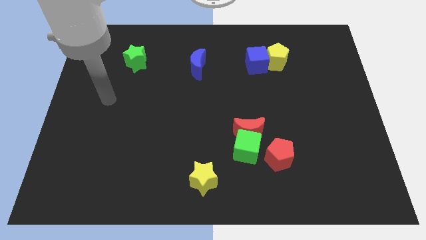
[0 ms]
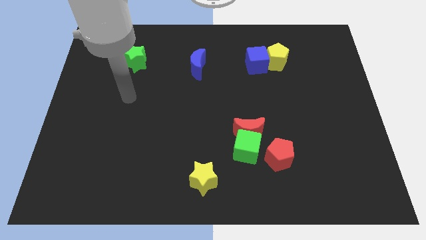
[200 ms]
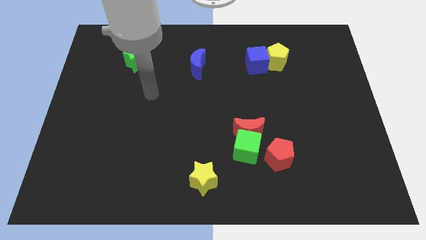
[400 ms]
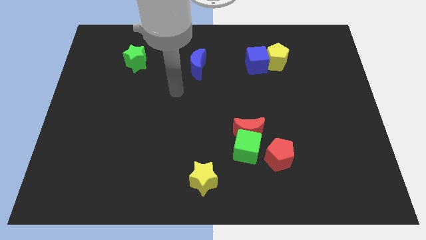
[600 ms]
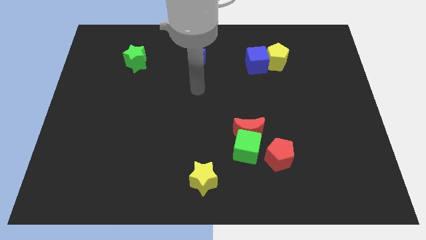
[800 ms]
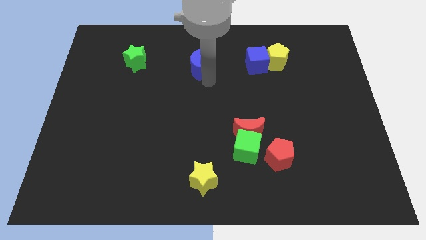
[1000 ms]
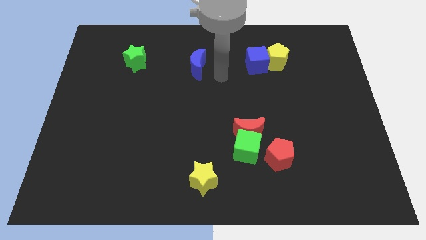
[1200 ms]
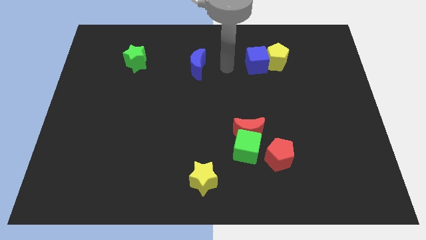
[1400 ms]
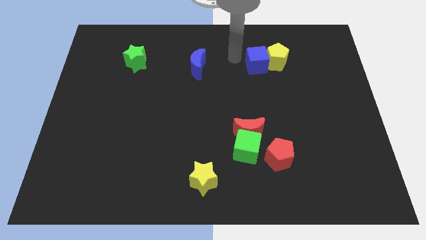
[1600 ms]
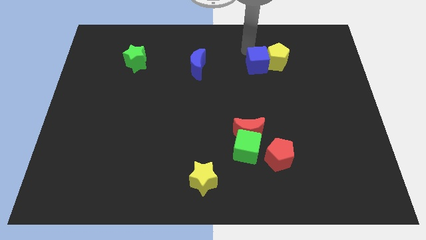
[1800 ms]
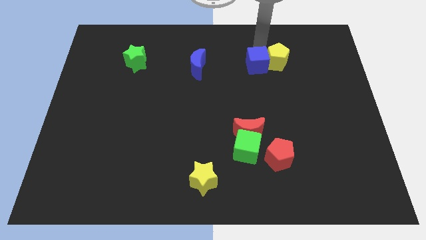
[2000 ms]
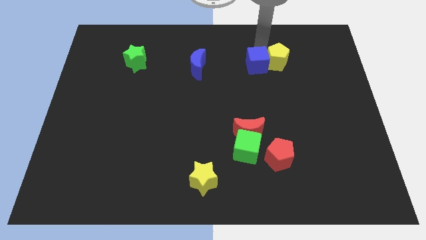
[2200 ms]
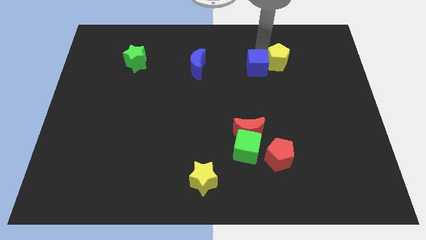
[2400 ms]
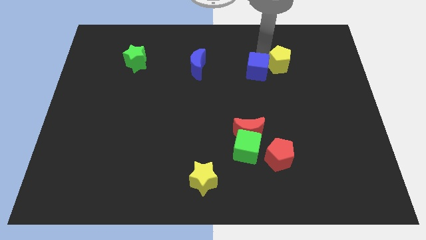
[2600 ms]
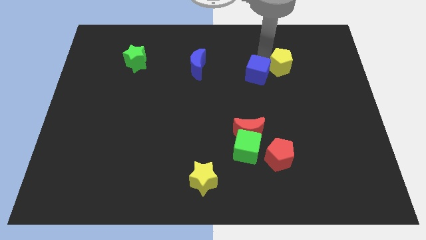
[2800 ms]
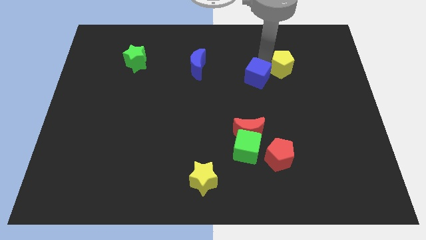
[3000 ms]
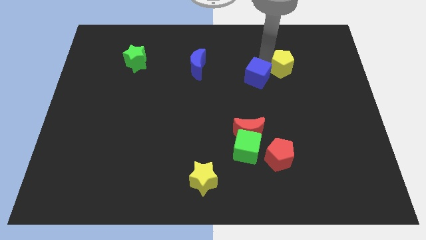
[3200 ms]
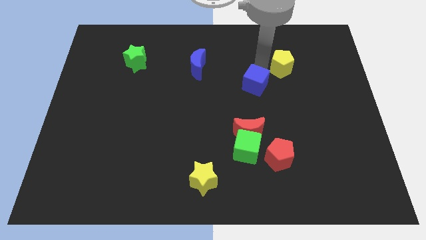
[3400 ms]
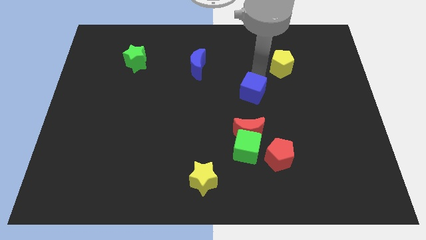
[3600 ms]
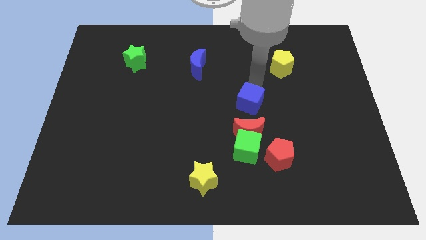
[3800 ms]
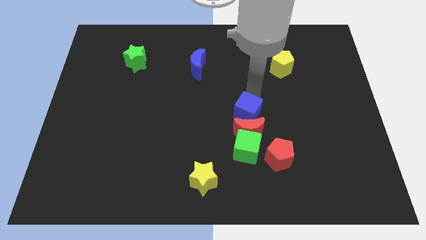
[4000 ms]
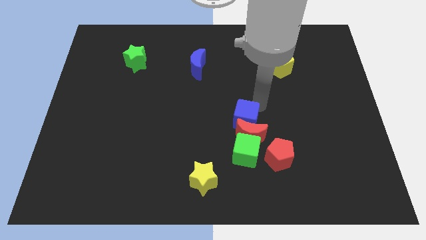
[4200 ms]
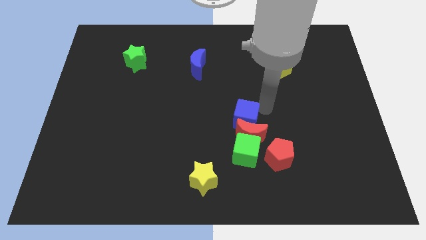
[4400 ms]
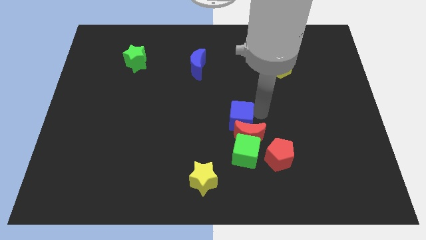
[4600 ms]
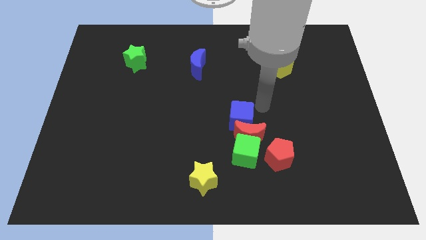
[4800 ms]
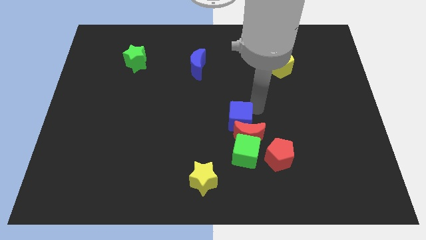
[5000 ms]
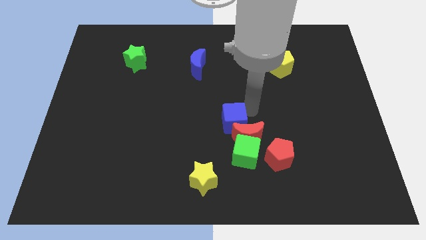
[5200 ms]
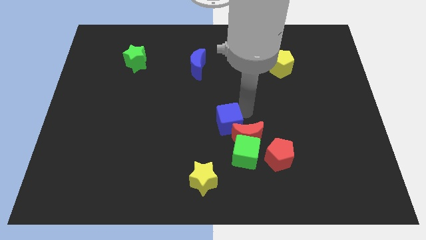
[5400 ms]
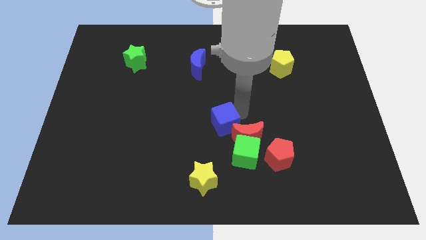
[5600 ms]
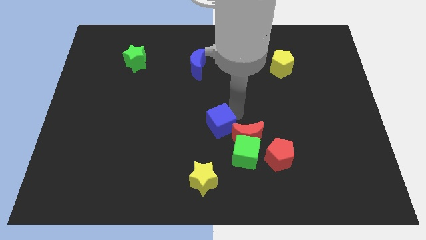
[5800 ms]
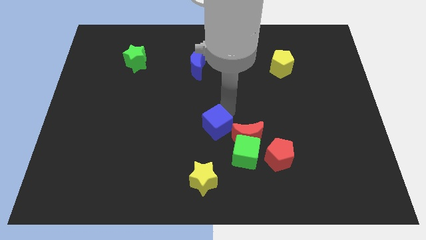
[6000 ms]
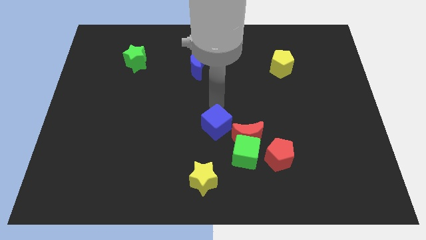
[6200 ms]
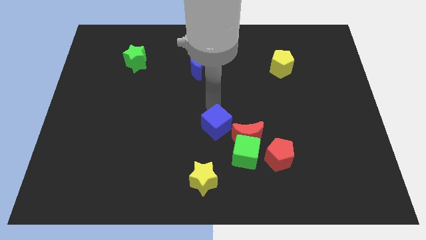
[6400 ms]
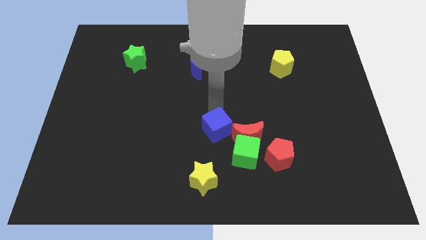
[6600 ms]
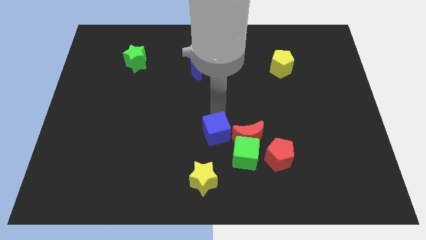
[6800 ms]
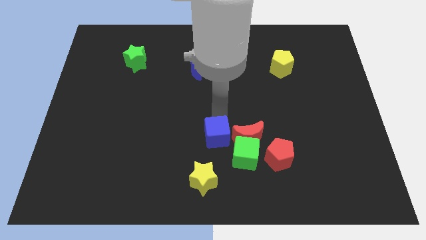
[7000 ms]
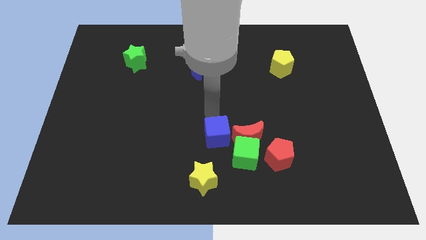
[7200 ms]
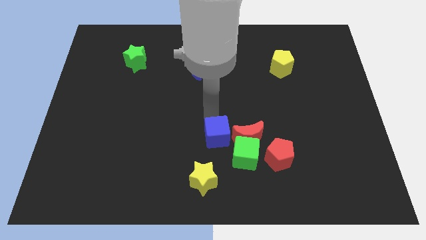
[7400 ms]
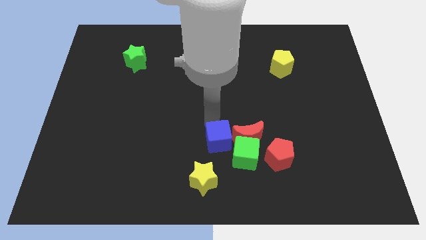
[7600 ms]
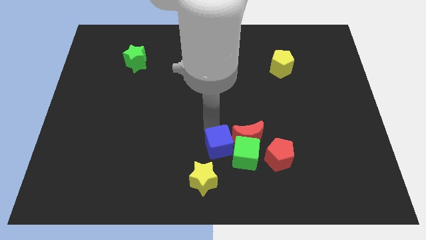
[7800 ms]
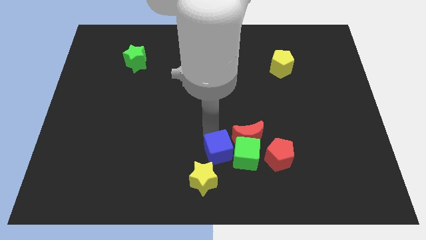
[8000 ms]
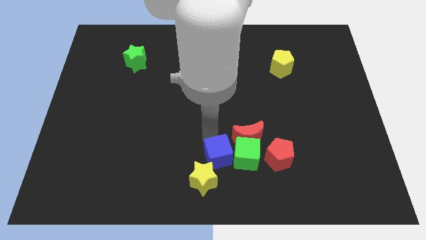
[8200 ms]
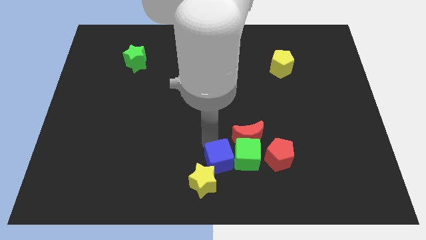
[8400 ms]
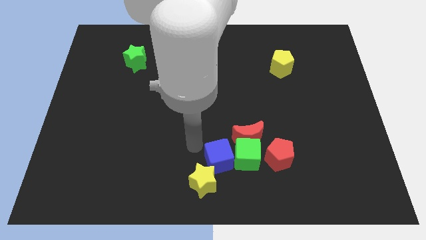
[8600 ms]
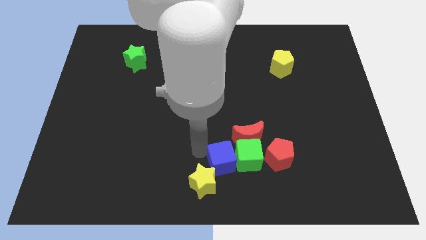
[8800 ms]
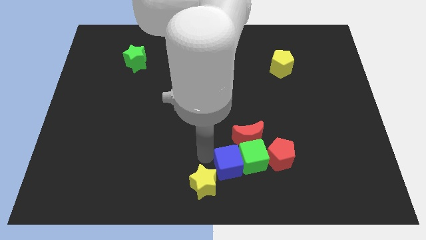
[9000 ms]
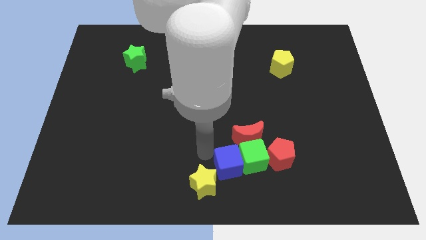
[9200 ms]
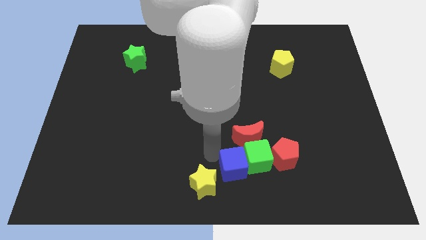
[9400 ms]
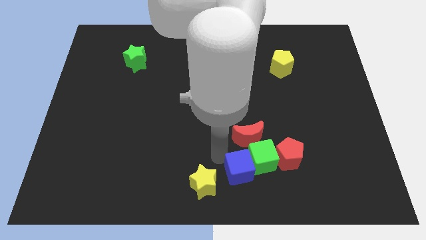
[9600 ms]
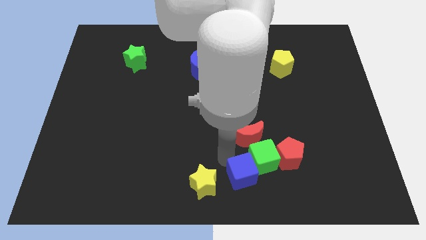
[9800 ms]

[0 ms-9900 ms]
push the blue cube to the bottom left of the red pentagon

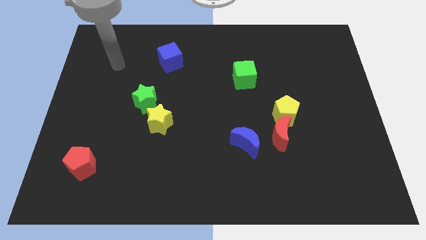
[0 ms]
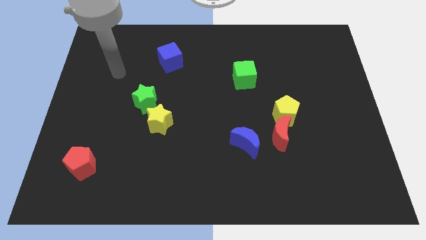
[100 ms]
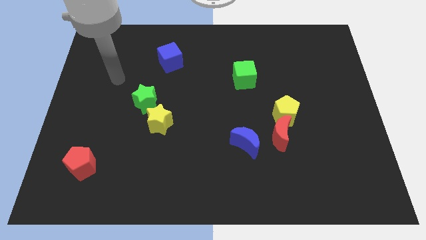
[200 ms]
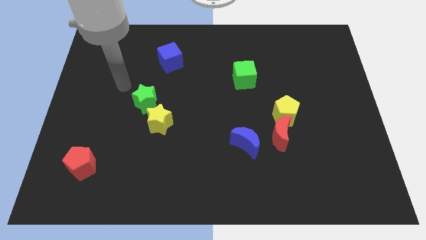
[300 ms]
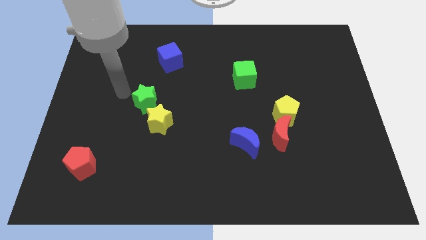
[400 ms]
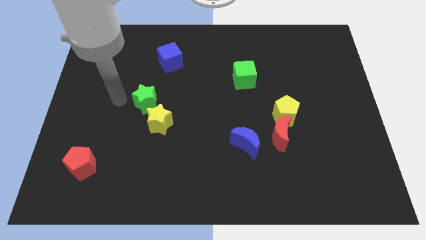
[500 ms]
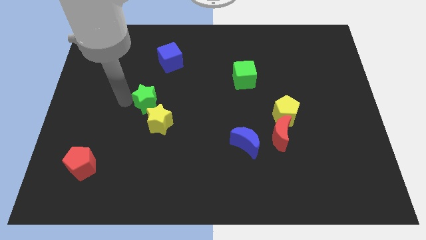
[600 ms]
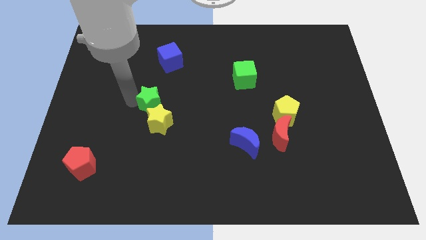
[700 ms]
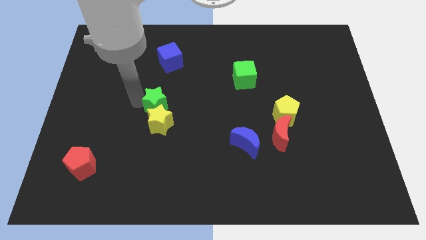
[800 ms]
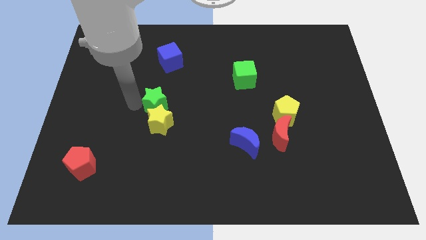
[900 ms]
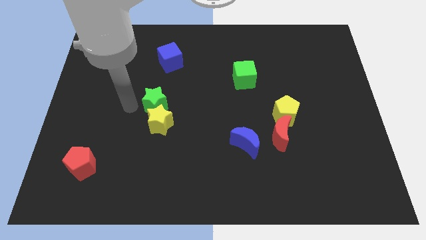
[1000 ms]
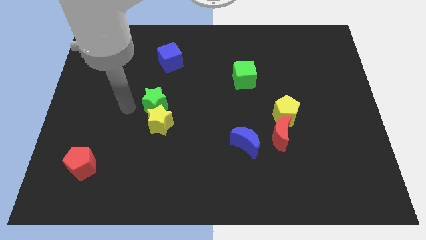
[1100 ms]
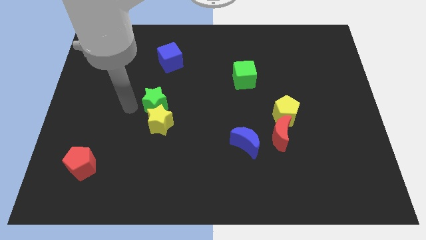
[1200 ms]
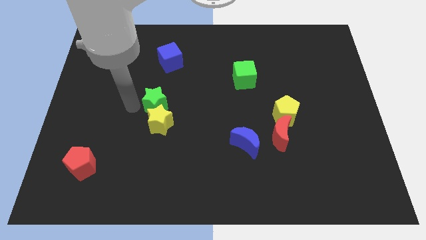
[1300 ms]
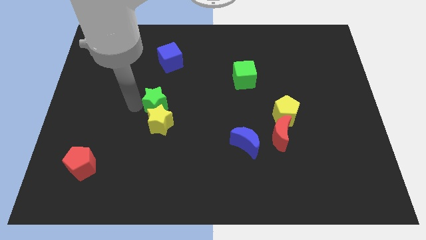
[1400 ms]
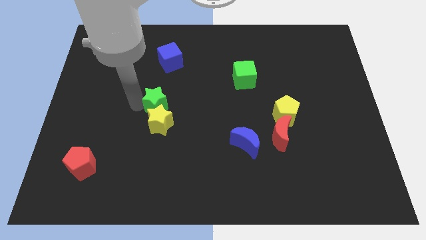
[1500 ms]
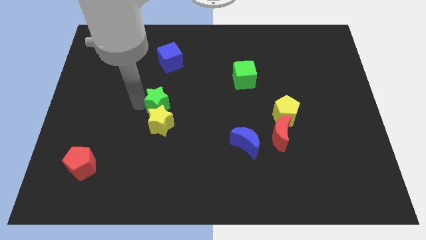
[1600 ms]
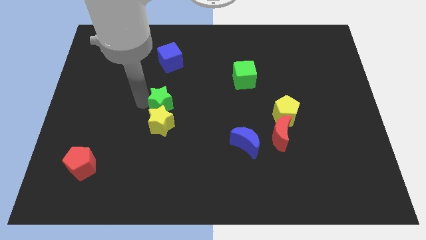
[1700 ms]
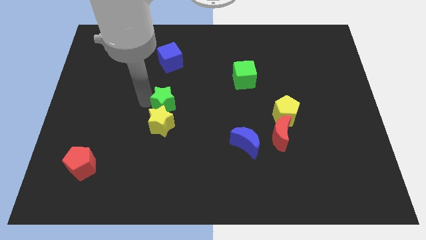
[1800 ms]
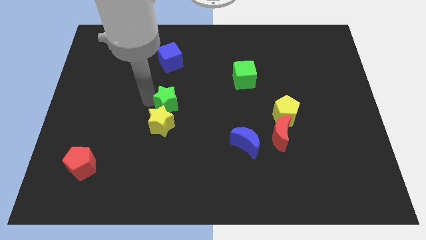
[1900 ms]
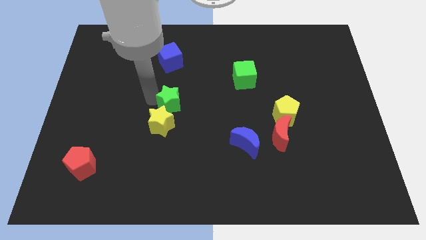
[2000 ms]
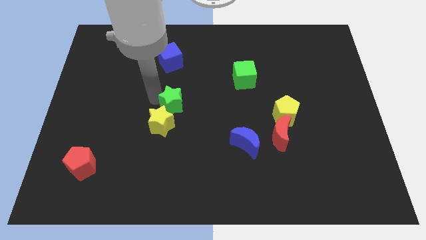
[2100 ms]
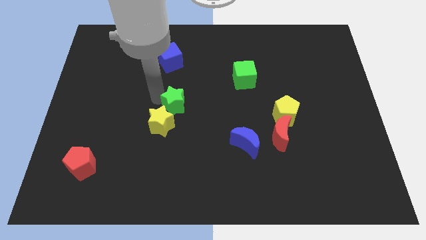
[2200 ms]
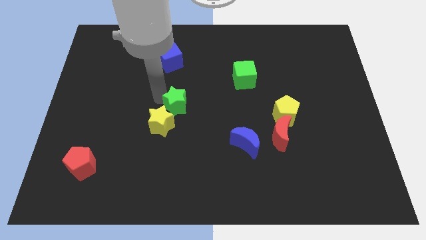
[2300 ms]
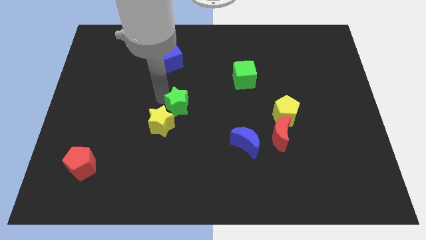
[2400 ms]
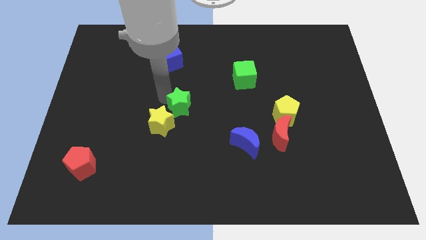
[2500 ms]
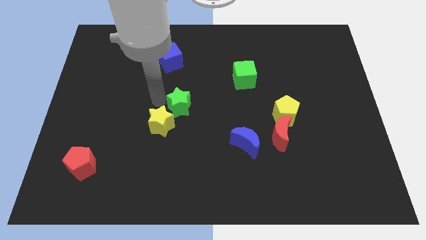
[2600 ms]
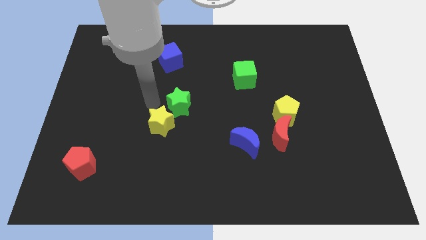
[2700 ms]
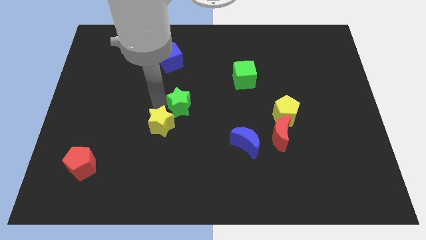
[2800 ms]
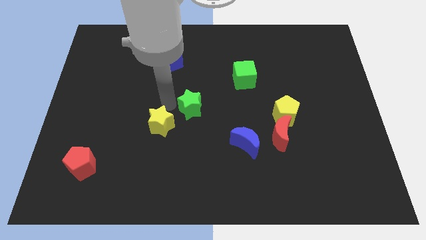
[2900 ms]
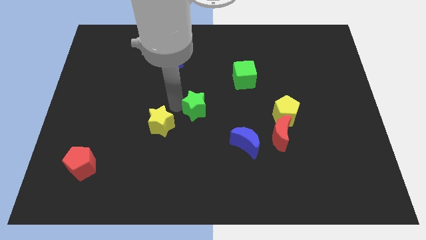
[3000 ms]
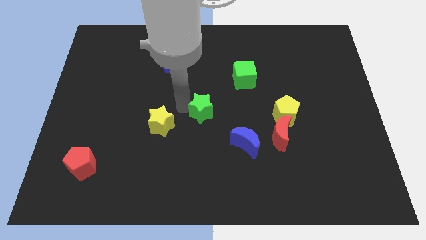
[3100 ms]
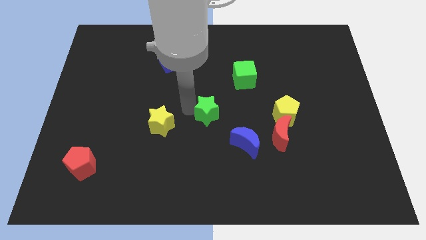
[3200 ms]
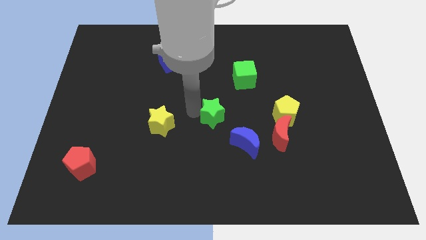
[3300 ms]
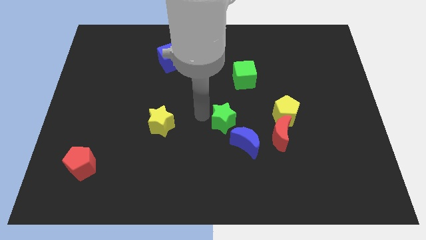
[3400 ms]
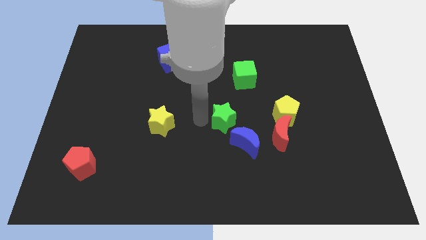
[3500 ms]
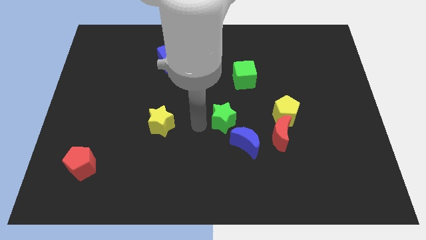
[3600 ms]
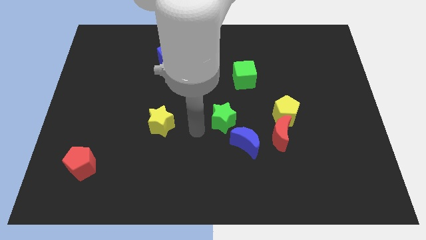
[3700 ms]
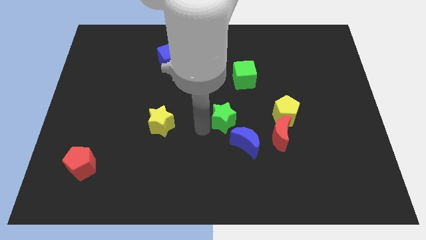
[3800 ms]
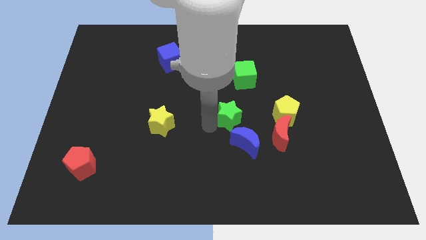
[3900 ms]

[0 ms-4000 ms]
move the green star to the bottom side of the green cube
